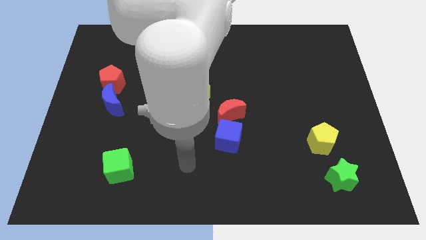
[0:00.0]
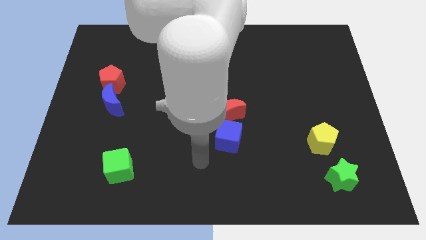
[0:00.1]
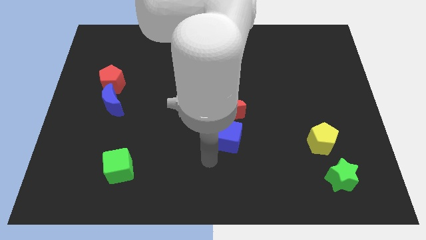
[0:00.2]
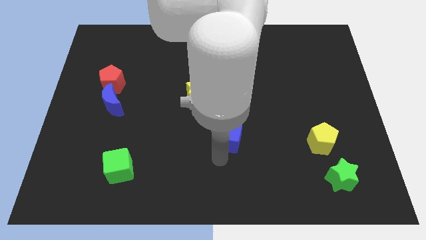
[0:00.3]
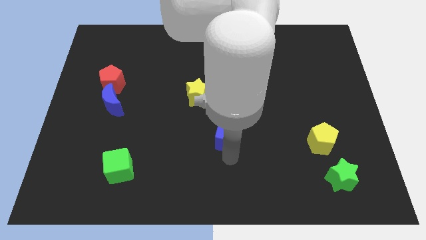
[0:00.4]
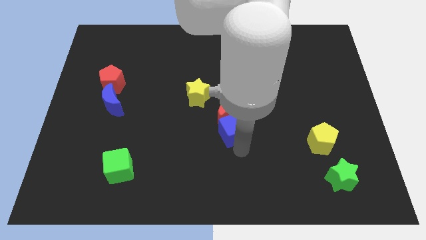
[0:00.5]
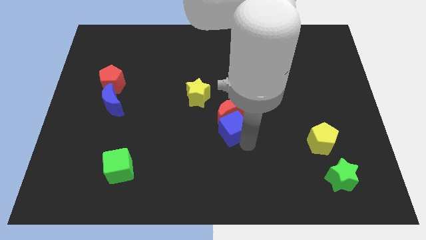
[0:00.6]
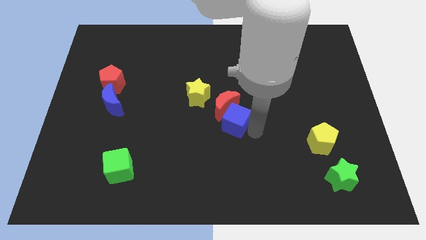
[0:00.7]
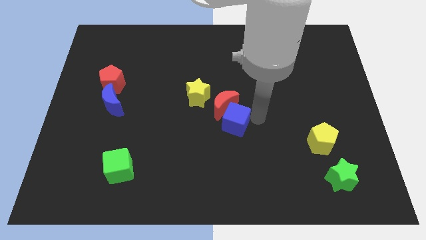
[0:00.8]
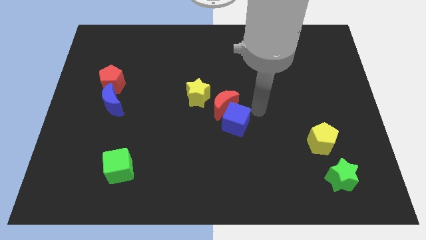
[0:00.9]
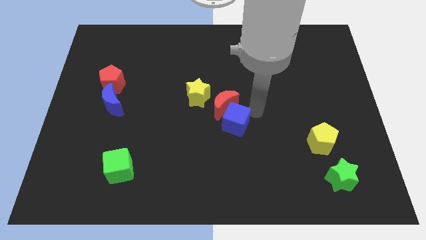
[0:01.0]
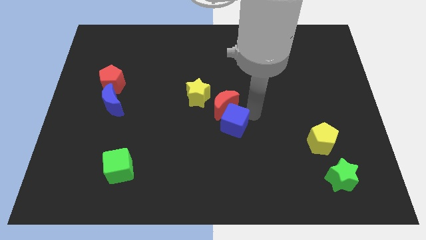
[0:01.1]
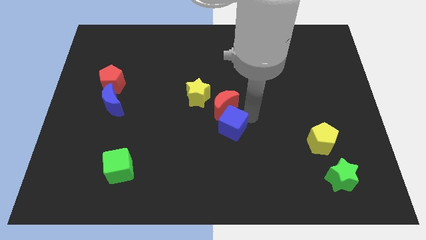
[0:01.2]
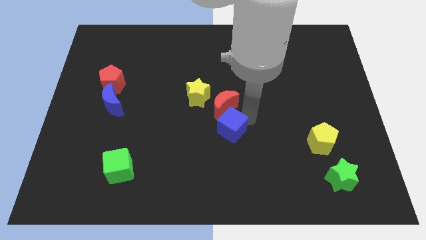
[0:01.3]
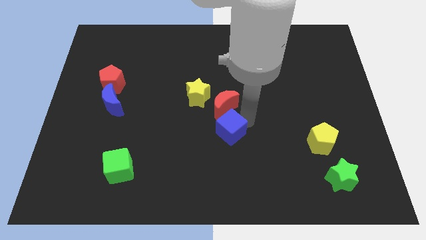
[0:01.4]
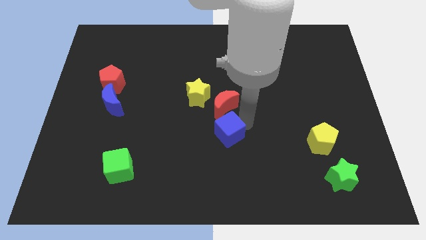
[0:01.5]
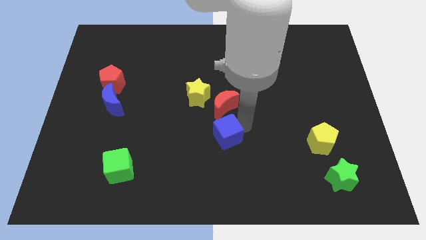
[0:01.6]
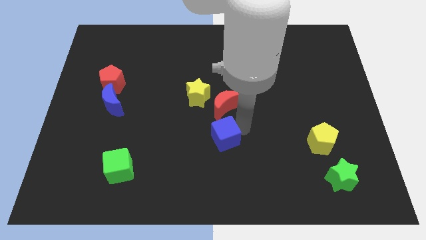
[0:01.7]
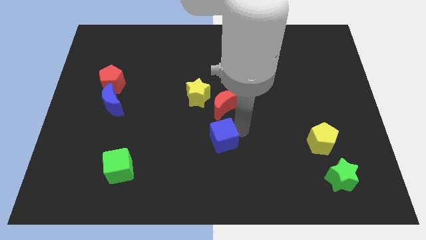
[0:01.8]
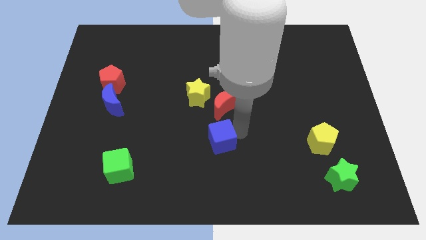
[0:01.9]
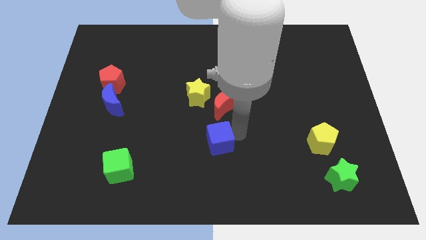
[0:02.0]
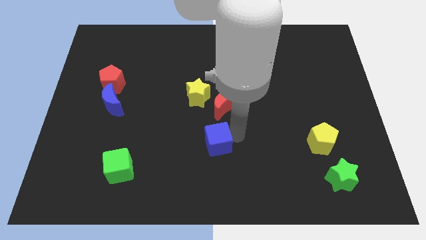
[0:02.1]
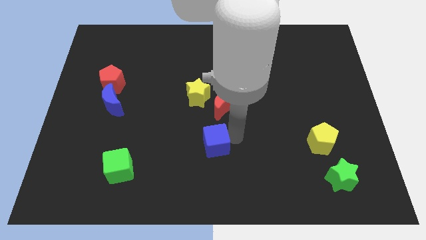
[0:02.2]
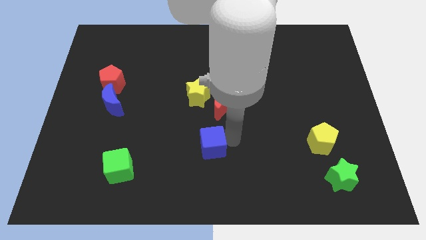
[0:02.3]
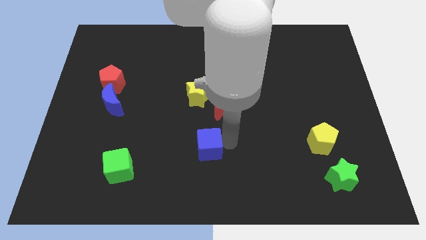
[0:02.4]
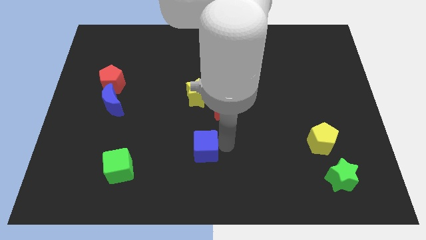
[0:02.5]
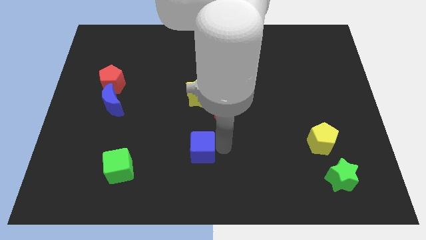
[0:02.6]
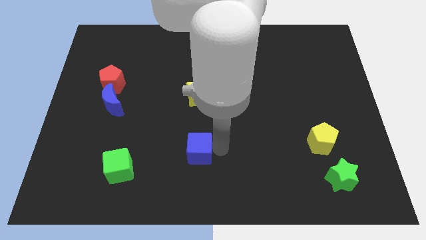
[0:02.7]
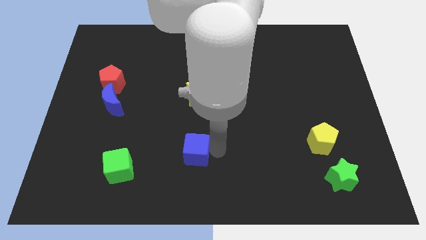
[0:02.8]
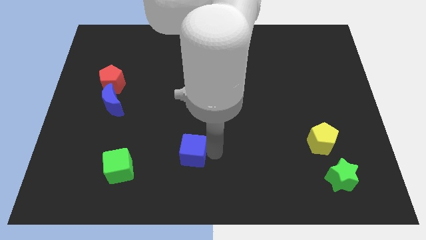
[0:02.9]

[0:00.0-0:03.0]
push the blue cube left somewhat

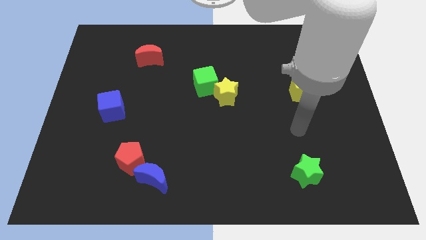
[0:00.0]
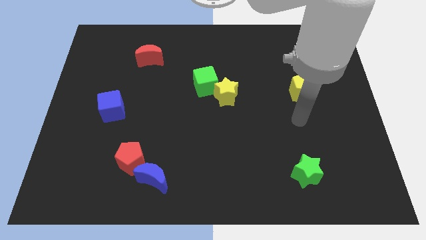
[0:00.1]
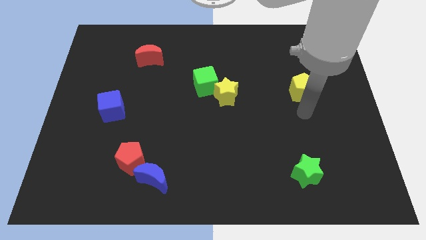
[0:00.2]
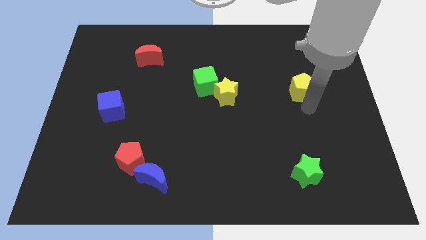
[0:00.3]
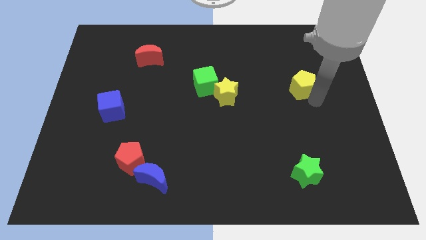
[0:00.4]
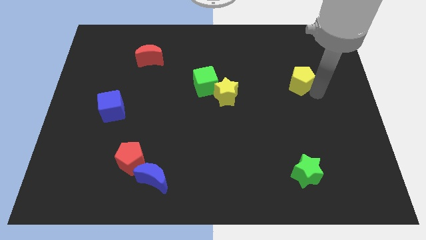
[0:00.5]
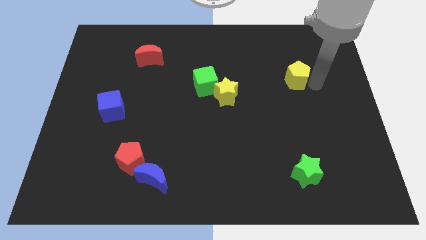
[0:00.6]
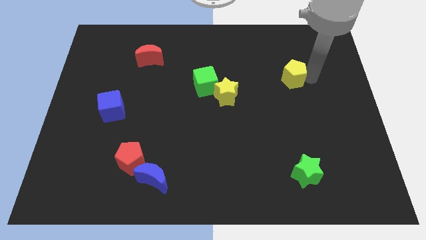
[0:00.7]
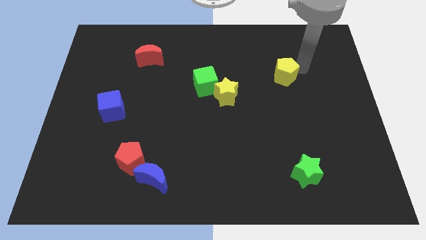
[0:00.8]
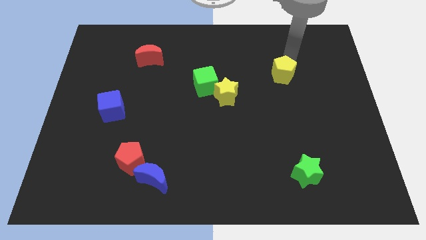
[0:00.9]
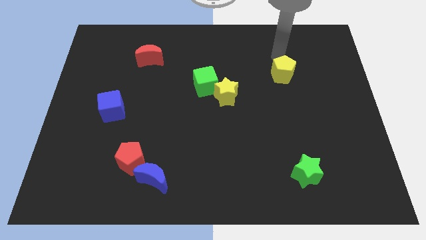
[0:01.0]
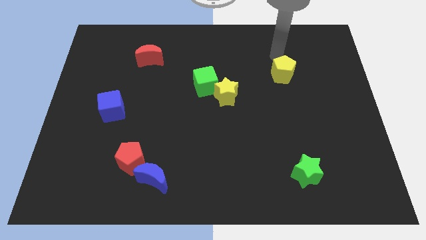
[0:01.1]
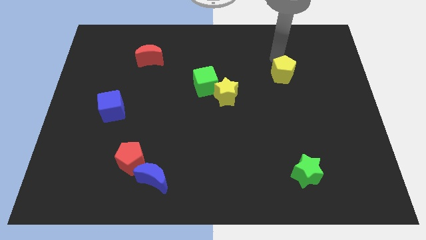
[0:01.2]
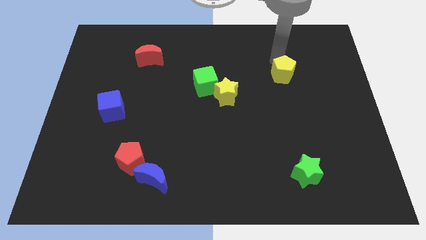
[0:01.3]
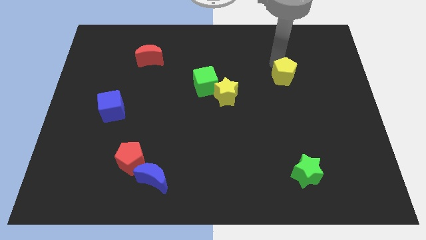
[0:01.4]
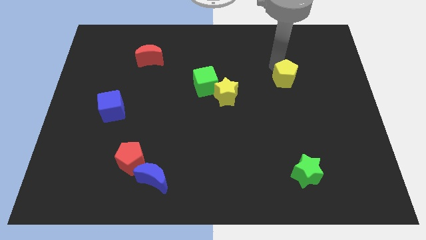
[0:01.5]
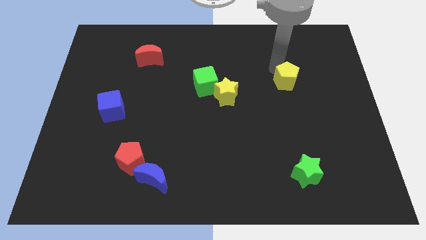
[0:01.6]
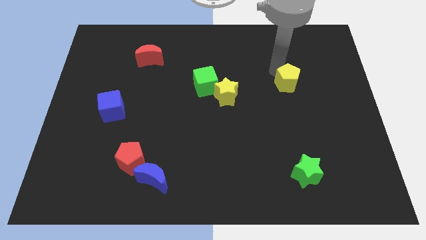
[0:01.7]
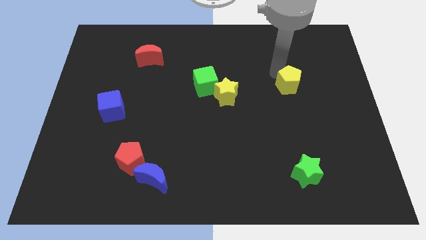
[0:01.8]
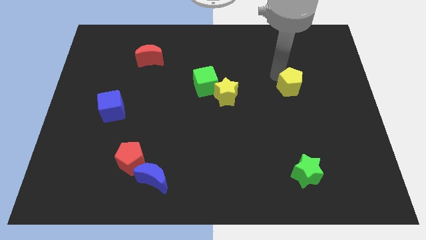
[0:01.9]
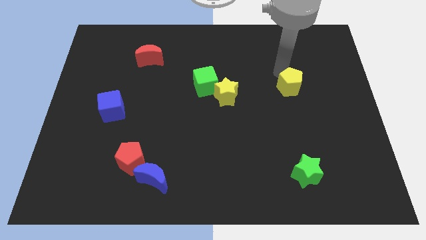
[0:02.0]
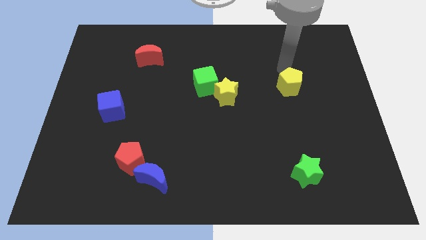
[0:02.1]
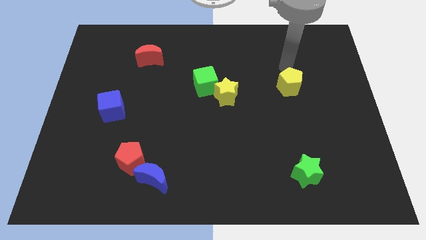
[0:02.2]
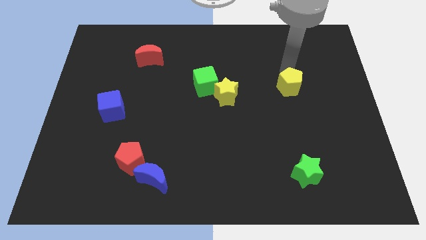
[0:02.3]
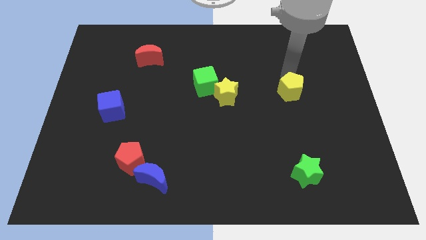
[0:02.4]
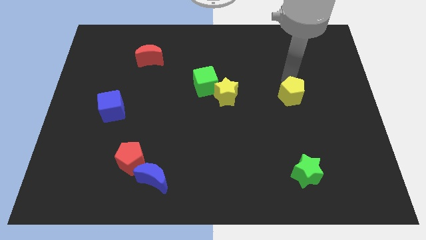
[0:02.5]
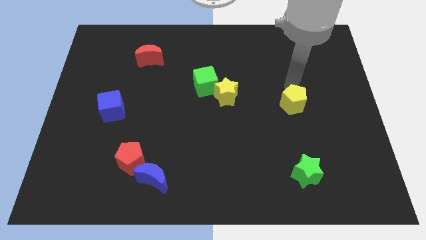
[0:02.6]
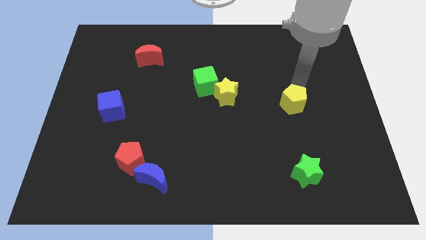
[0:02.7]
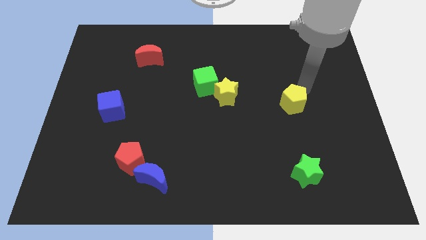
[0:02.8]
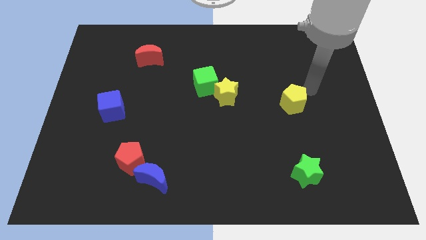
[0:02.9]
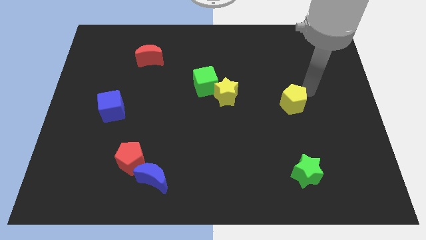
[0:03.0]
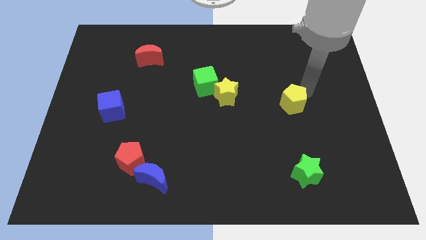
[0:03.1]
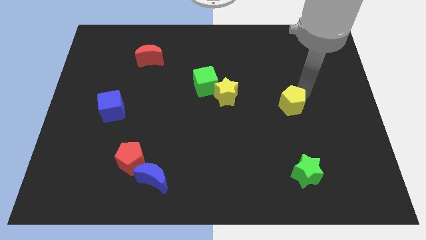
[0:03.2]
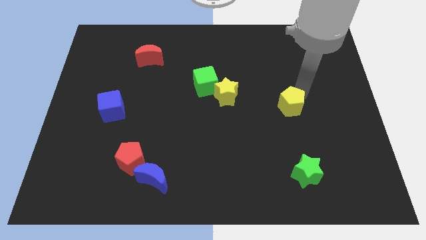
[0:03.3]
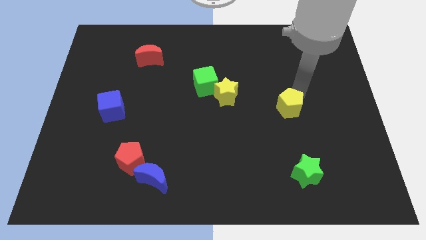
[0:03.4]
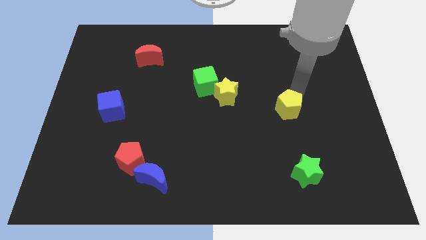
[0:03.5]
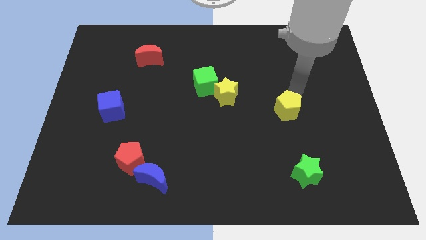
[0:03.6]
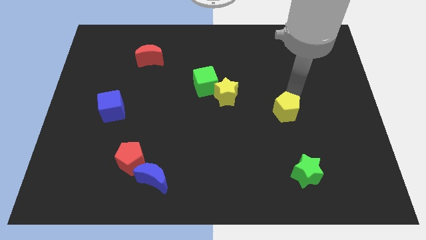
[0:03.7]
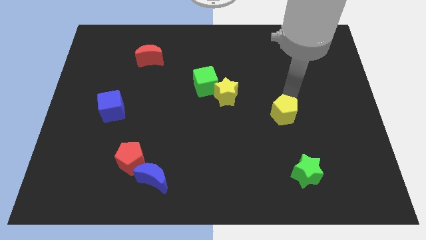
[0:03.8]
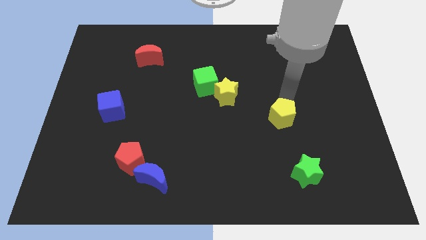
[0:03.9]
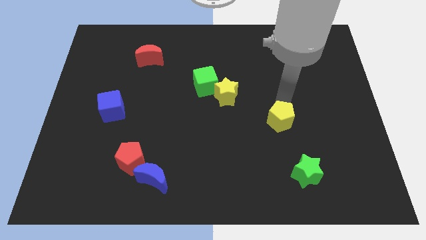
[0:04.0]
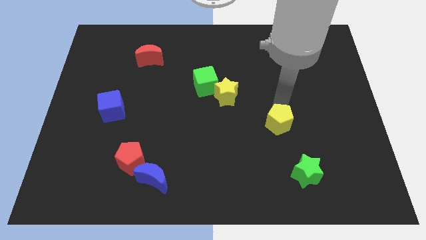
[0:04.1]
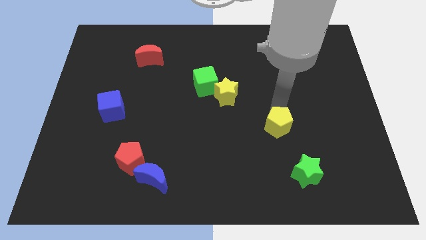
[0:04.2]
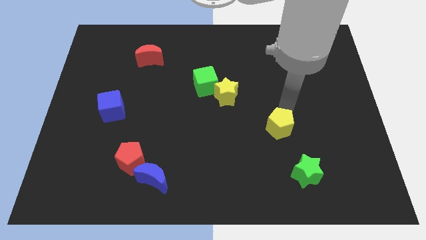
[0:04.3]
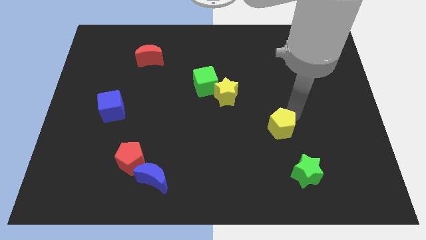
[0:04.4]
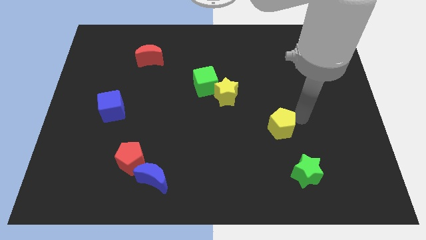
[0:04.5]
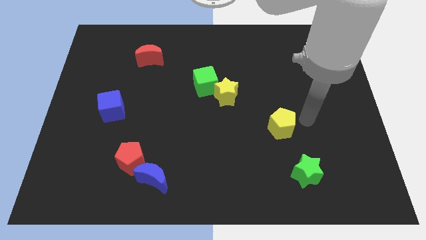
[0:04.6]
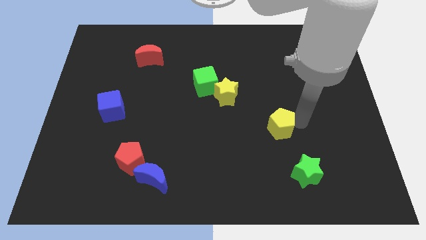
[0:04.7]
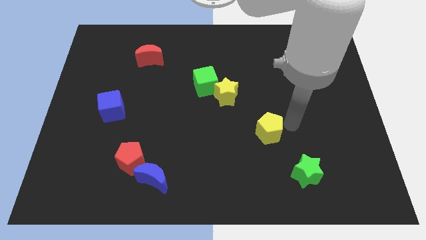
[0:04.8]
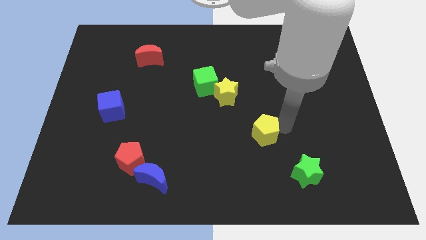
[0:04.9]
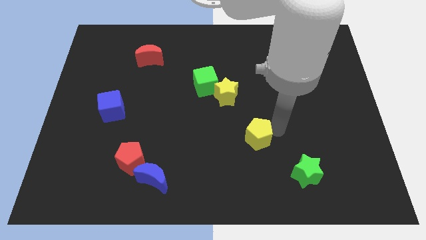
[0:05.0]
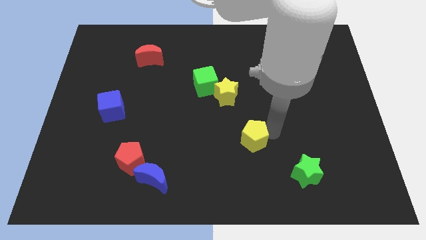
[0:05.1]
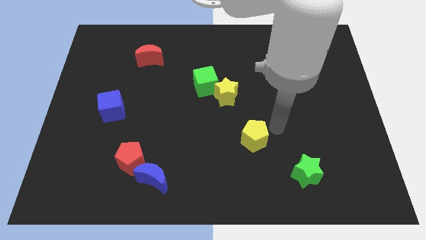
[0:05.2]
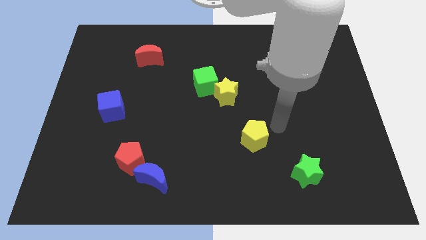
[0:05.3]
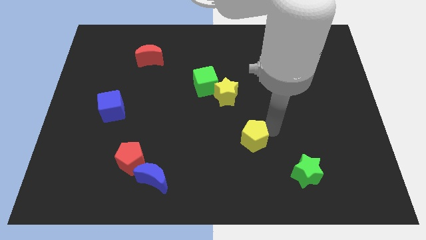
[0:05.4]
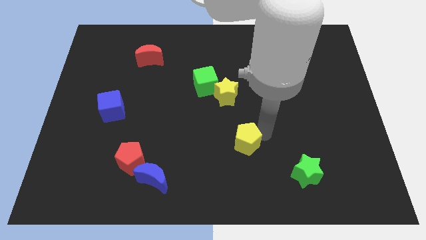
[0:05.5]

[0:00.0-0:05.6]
move the yellow pentagon down and then left
